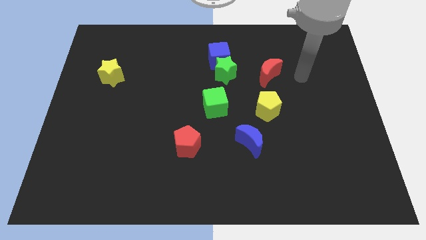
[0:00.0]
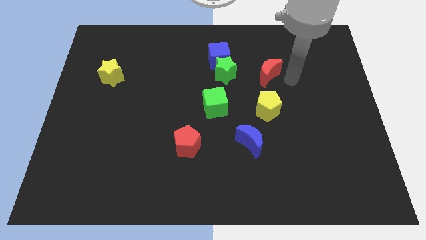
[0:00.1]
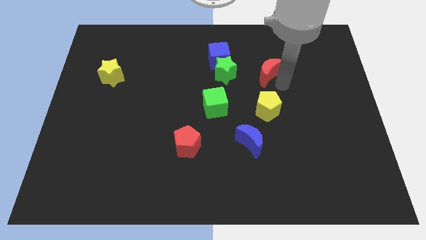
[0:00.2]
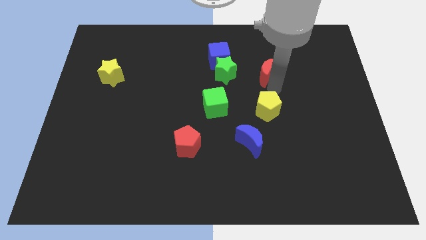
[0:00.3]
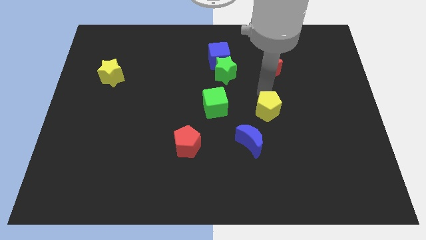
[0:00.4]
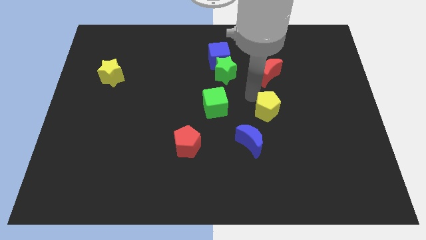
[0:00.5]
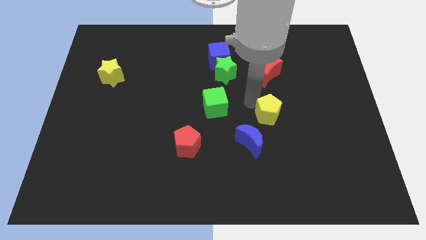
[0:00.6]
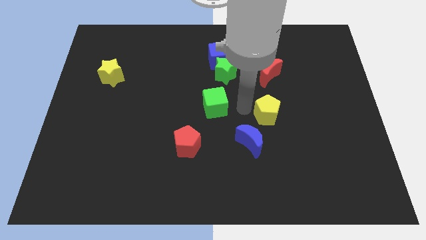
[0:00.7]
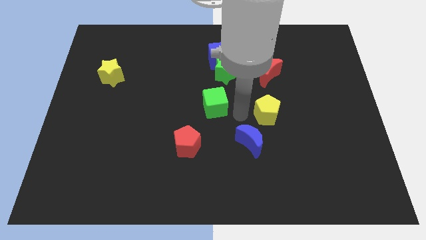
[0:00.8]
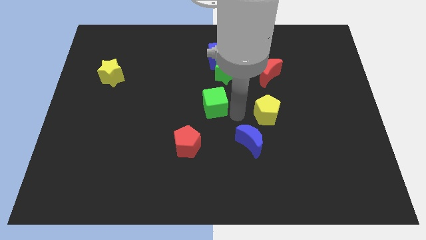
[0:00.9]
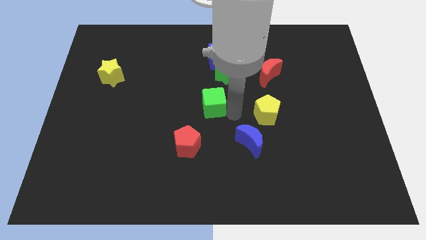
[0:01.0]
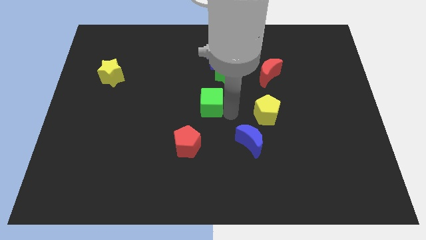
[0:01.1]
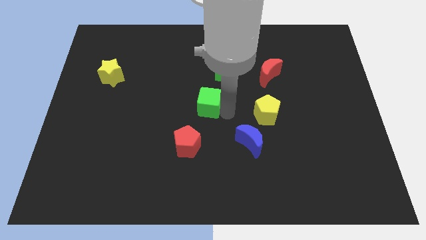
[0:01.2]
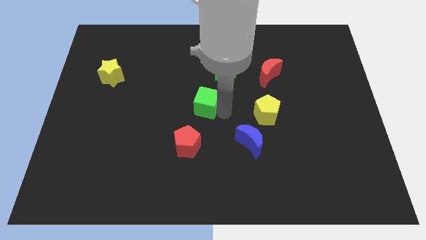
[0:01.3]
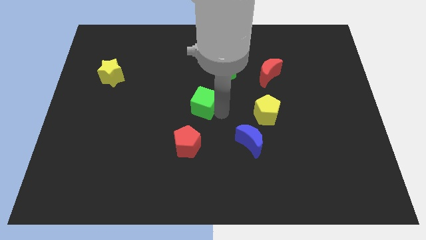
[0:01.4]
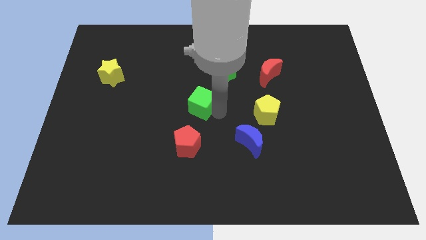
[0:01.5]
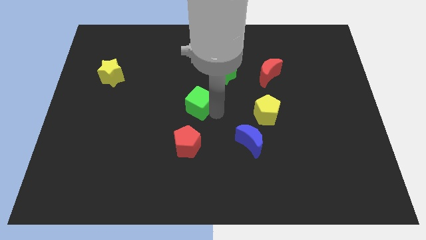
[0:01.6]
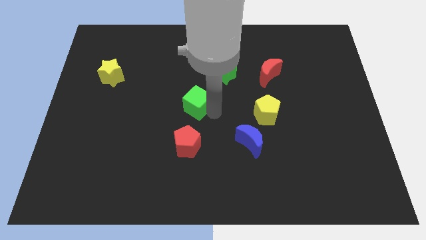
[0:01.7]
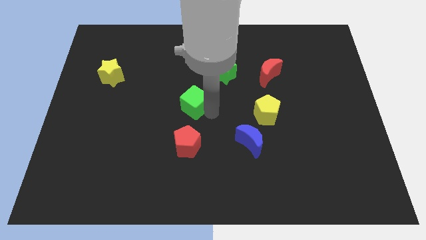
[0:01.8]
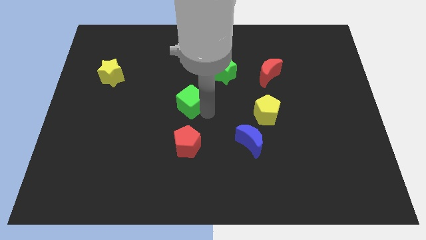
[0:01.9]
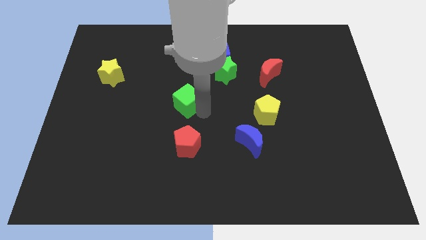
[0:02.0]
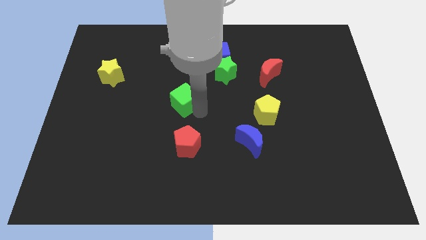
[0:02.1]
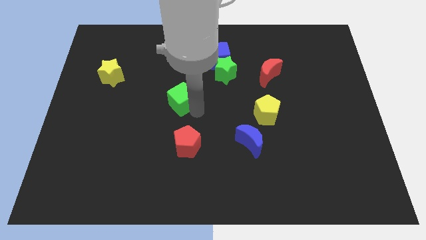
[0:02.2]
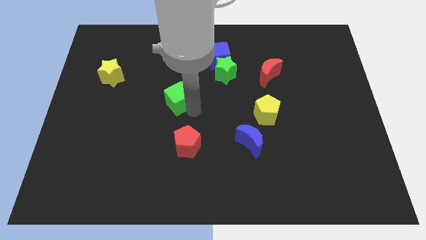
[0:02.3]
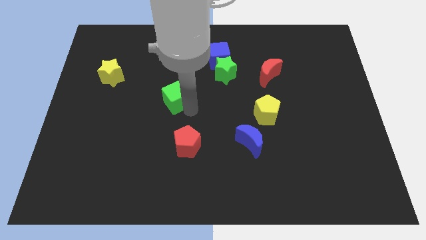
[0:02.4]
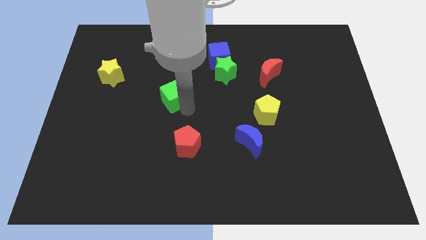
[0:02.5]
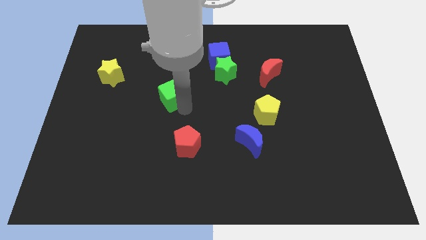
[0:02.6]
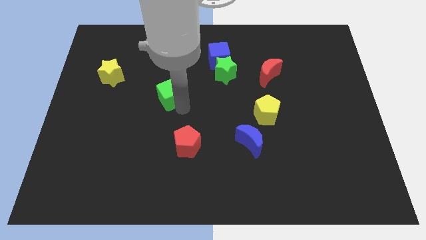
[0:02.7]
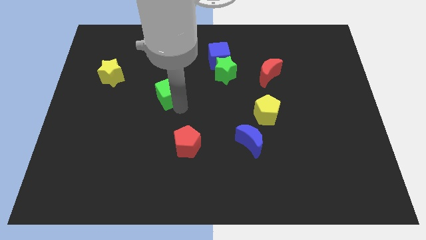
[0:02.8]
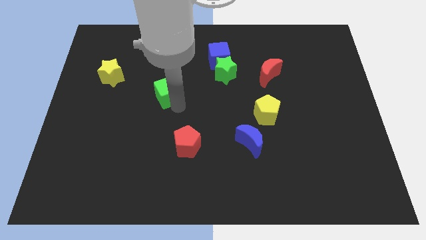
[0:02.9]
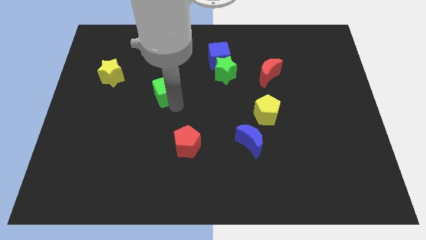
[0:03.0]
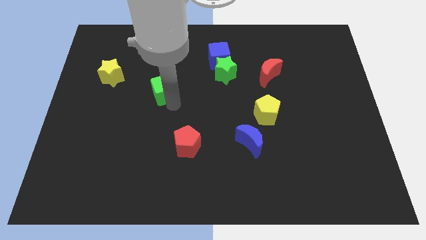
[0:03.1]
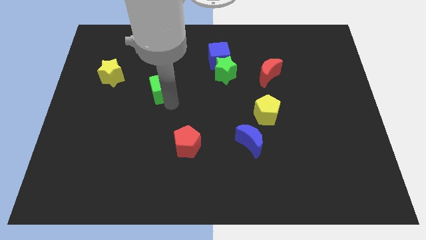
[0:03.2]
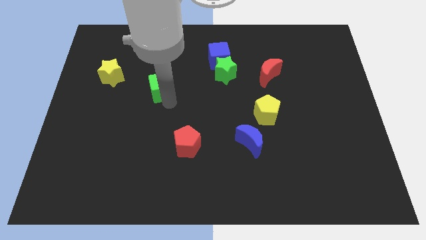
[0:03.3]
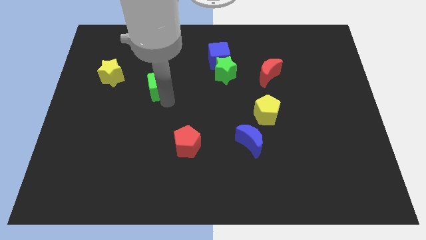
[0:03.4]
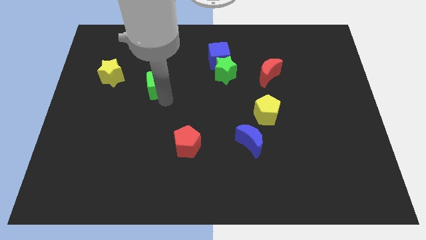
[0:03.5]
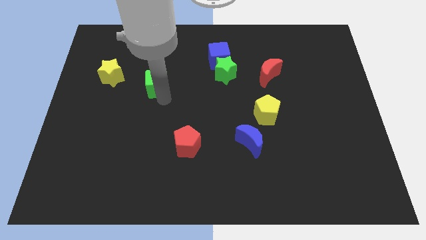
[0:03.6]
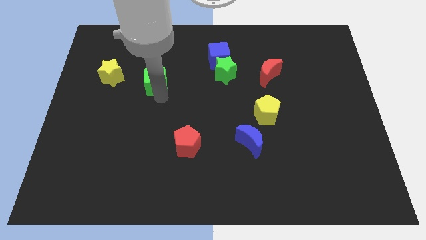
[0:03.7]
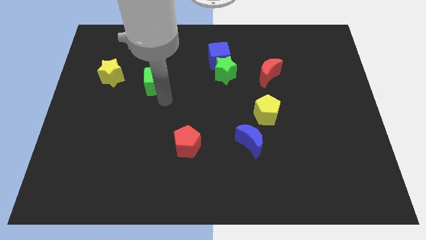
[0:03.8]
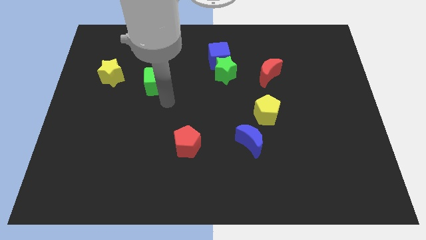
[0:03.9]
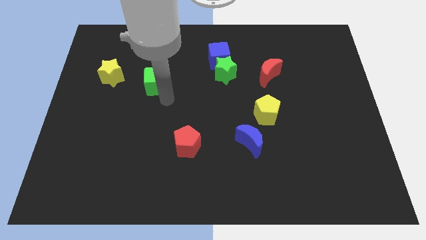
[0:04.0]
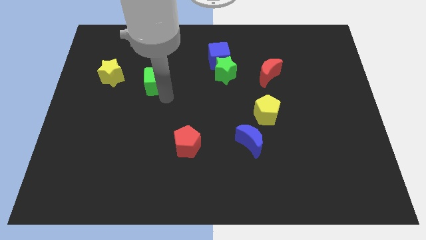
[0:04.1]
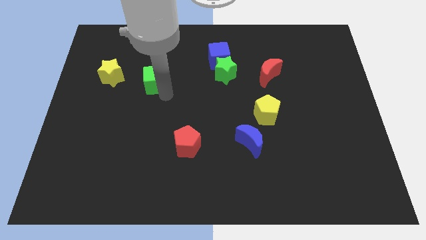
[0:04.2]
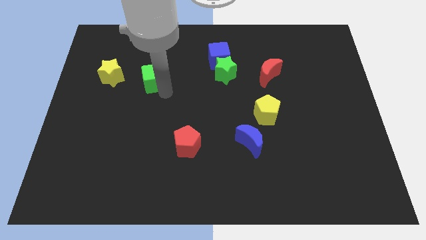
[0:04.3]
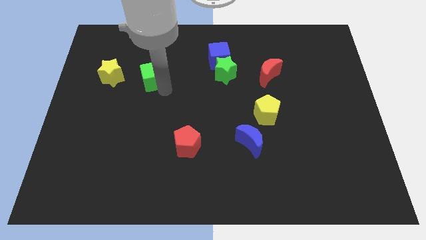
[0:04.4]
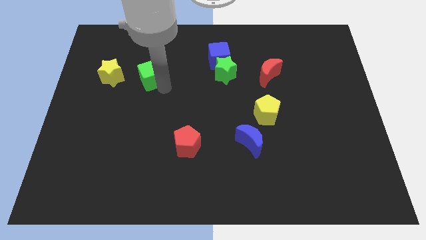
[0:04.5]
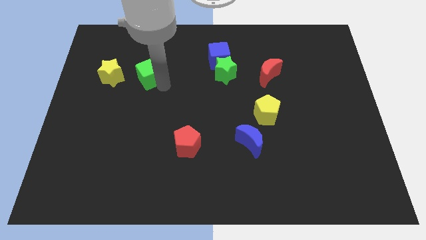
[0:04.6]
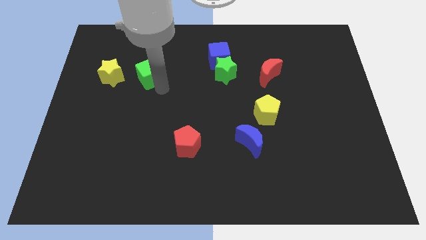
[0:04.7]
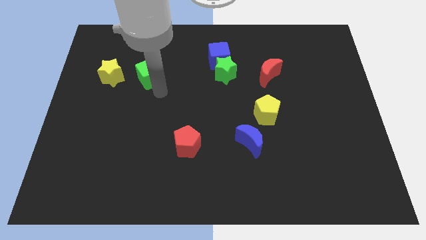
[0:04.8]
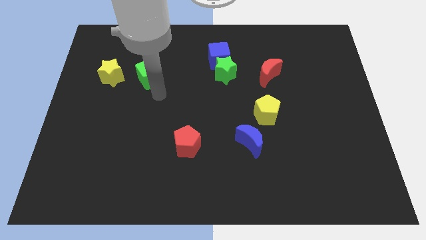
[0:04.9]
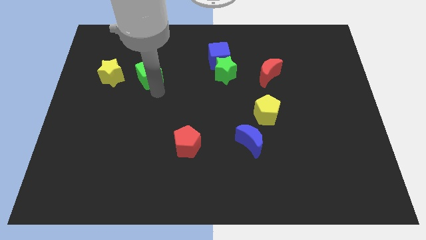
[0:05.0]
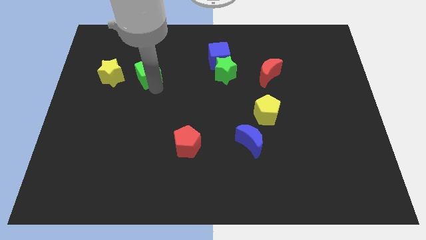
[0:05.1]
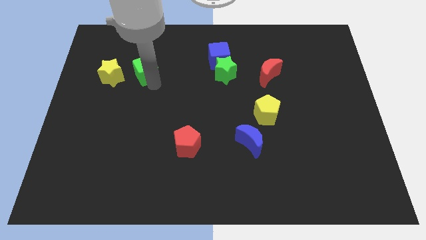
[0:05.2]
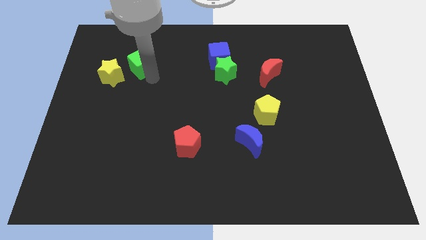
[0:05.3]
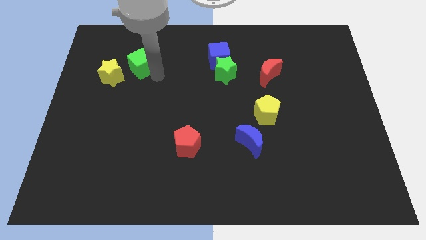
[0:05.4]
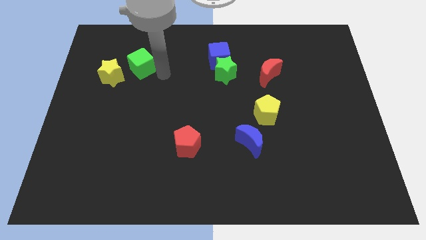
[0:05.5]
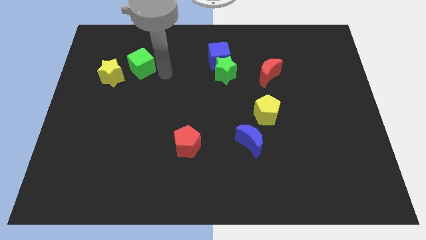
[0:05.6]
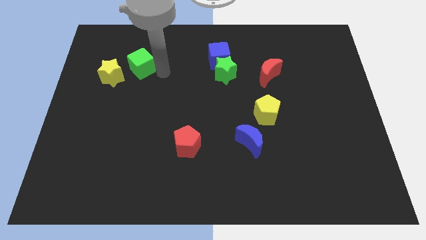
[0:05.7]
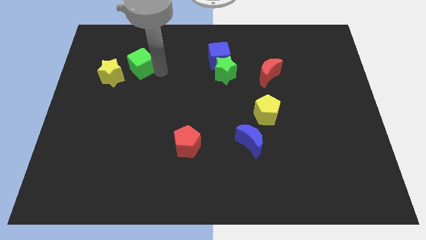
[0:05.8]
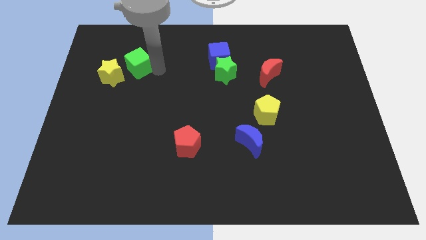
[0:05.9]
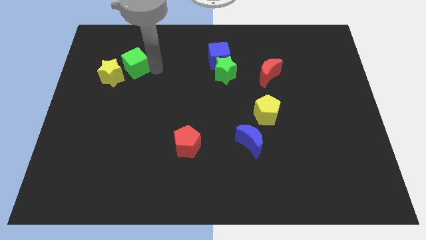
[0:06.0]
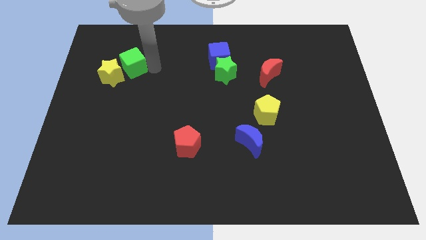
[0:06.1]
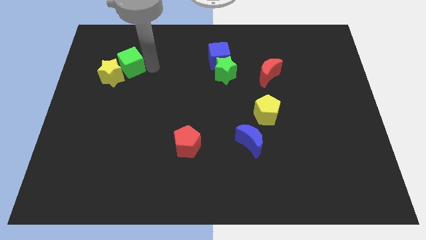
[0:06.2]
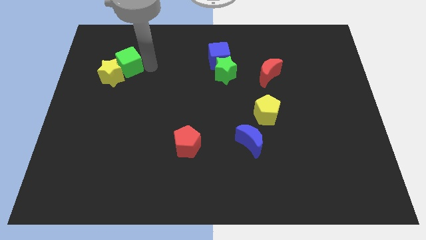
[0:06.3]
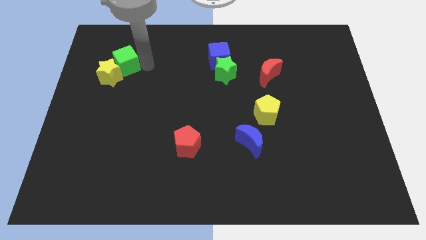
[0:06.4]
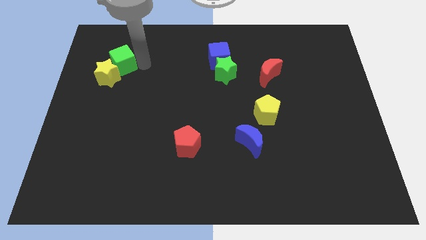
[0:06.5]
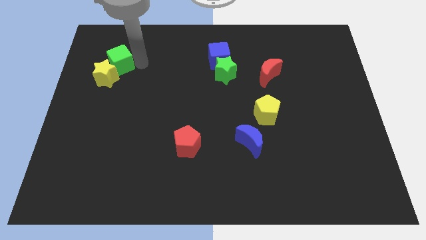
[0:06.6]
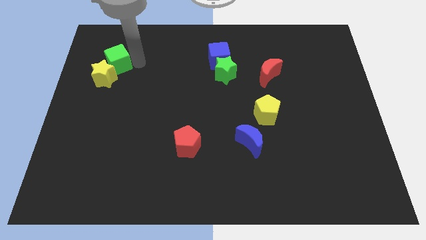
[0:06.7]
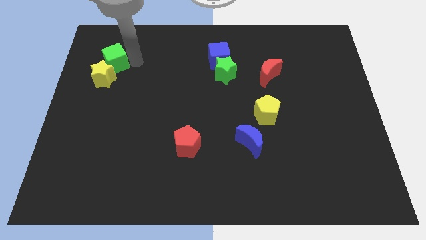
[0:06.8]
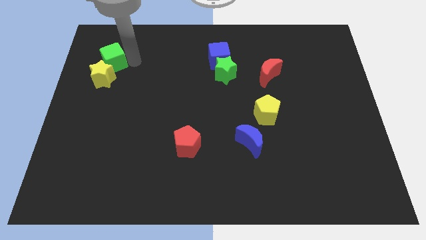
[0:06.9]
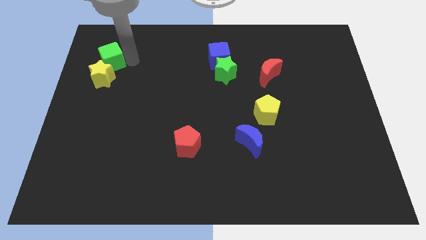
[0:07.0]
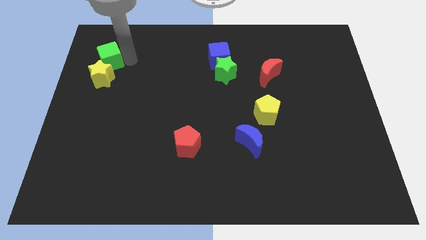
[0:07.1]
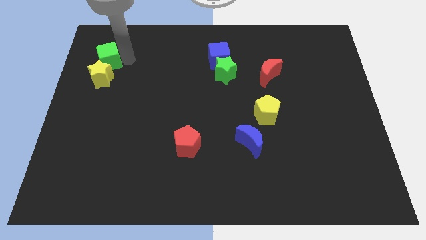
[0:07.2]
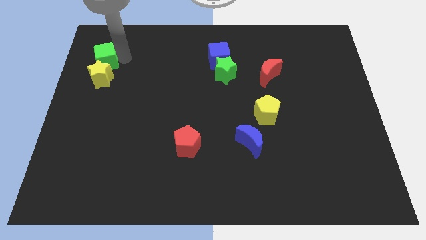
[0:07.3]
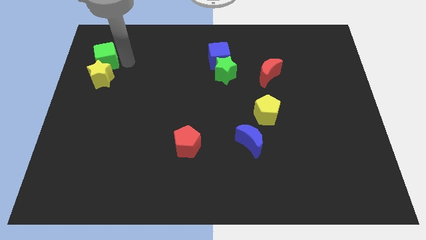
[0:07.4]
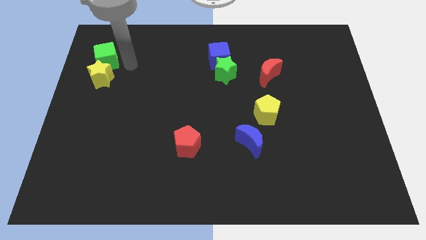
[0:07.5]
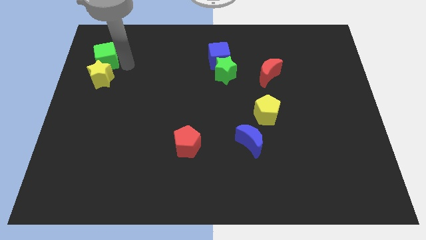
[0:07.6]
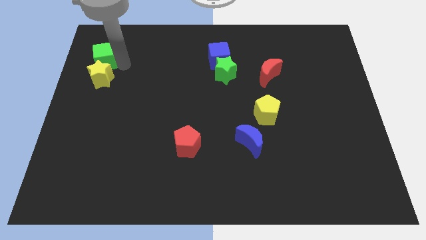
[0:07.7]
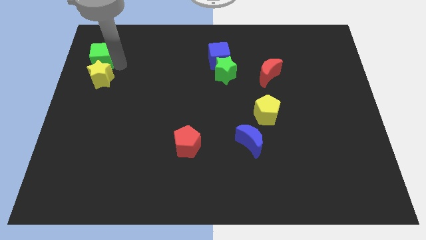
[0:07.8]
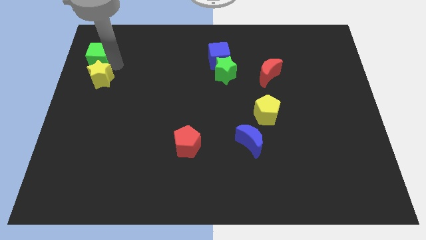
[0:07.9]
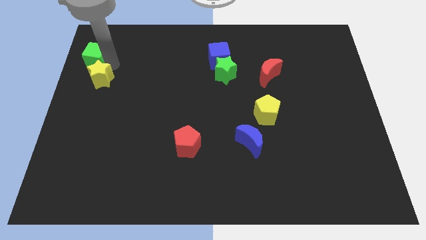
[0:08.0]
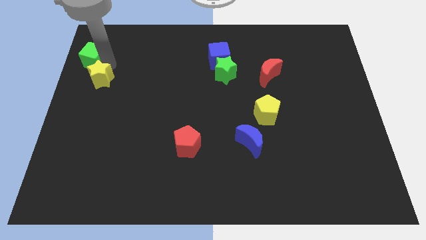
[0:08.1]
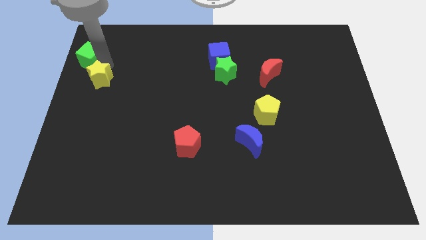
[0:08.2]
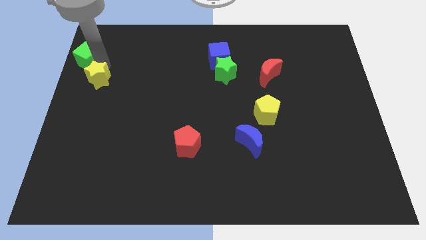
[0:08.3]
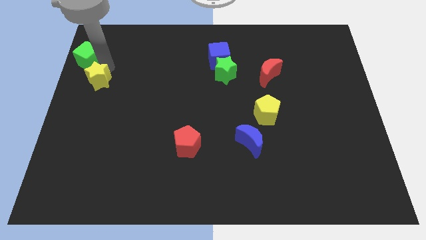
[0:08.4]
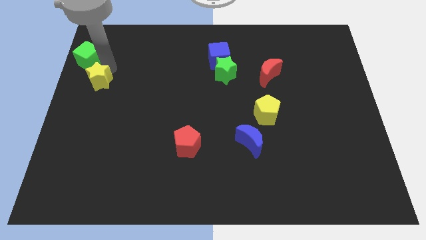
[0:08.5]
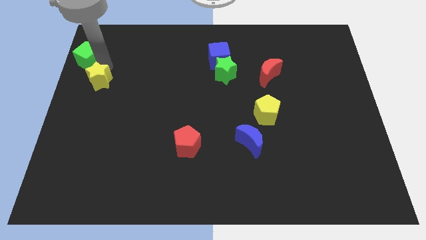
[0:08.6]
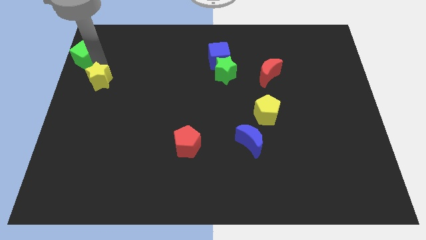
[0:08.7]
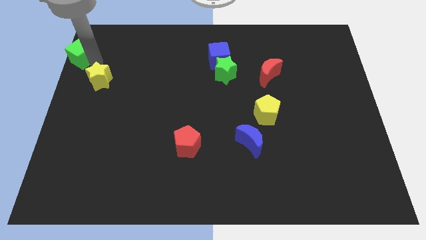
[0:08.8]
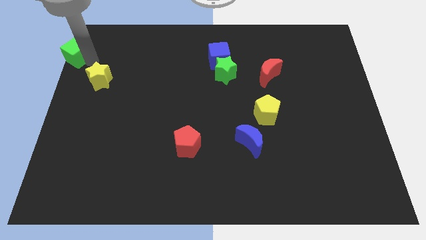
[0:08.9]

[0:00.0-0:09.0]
slide the green cube to the upper left corner
